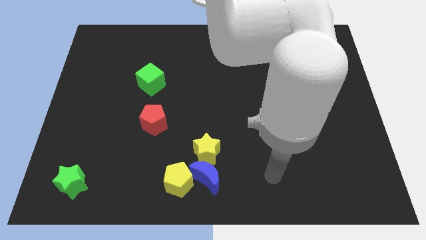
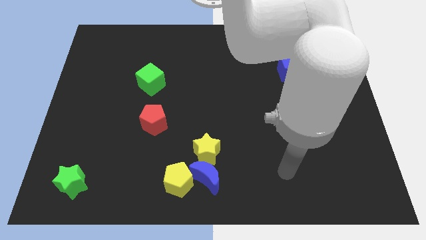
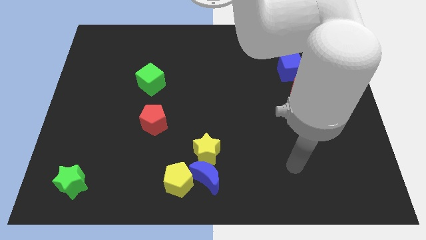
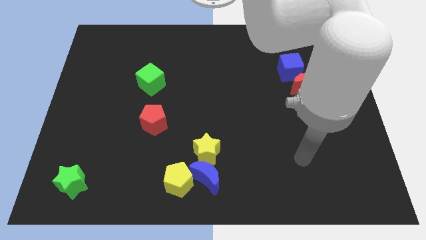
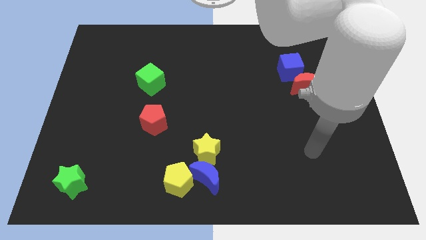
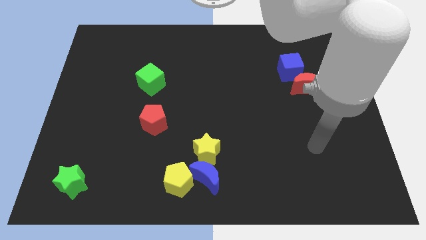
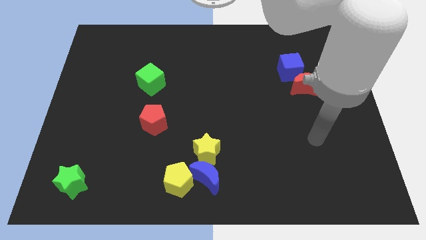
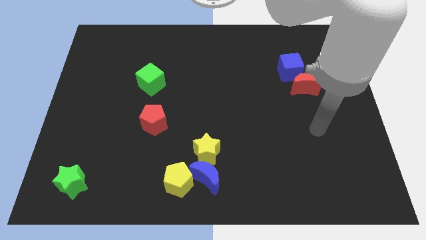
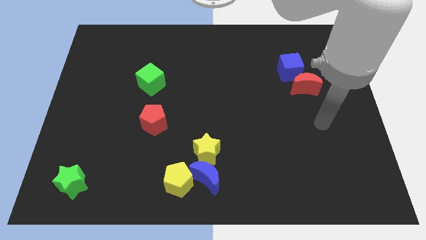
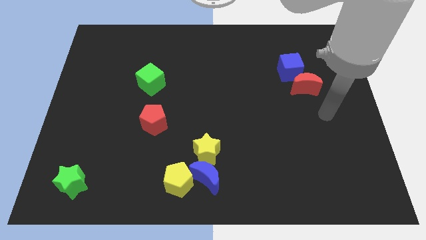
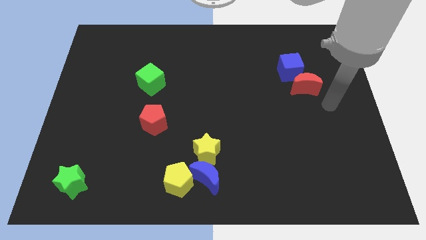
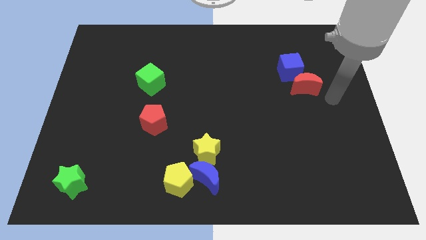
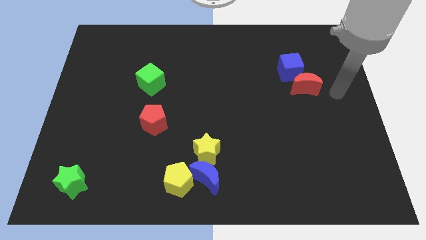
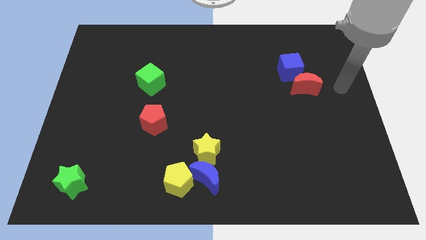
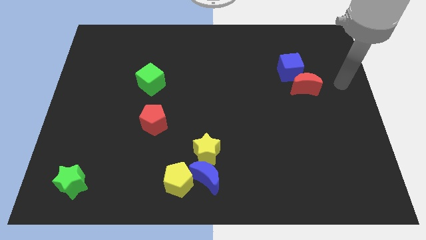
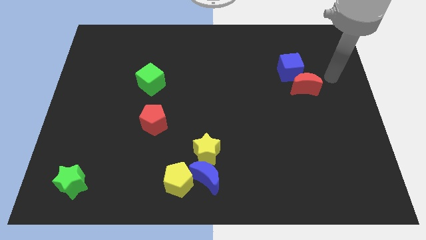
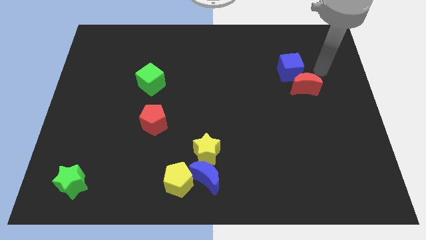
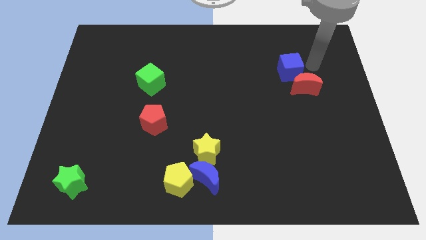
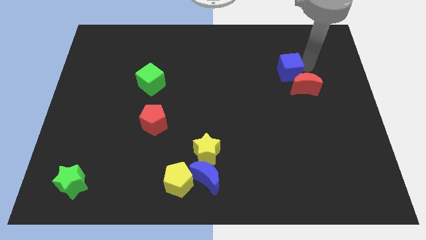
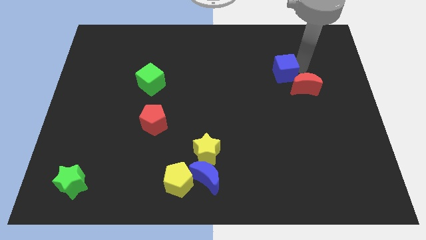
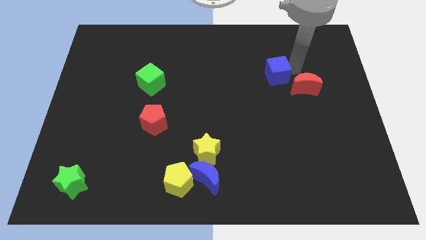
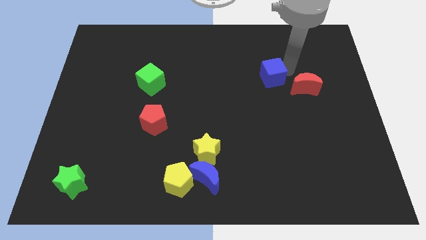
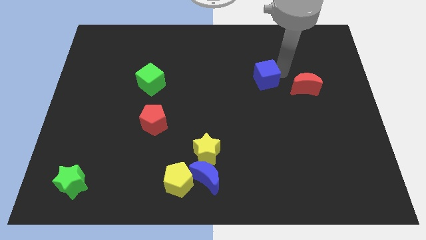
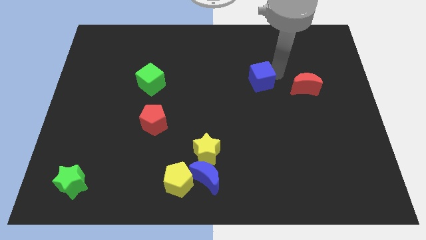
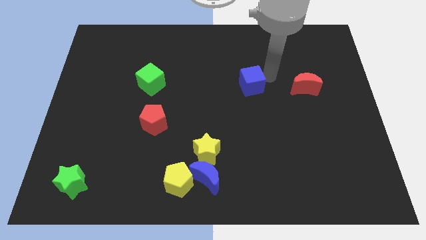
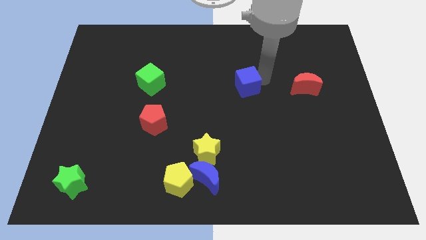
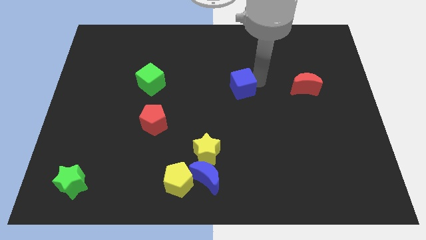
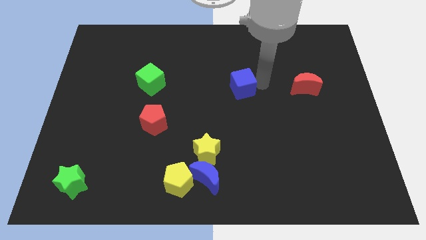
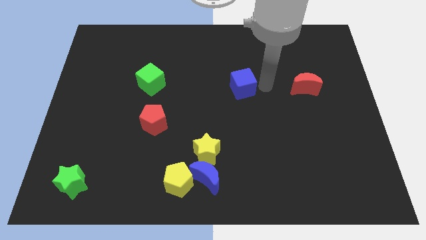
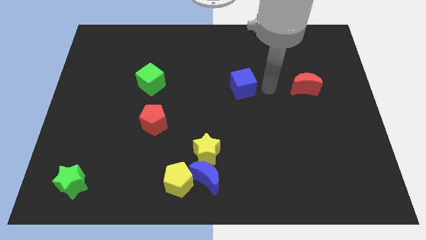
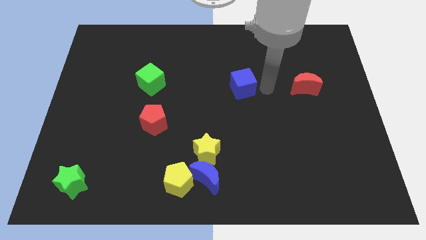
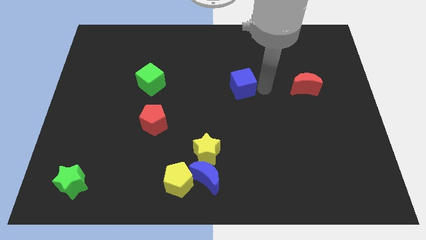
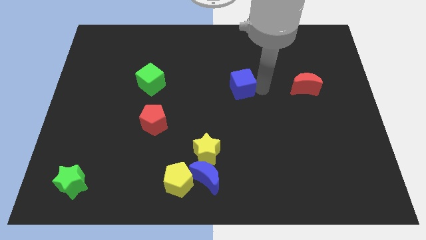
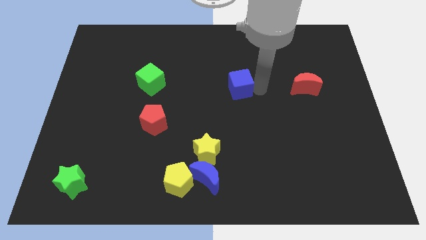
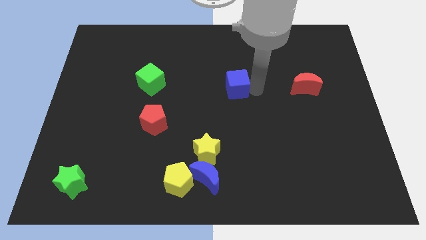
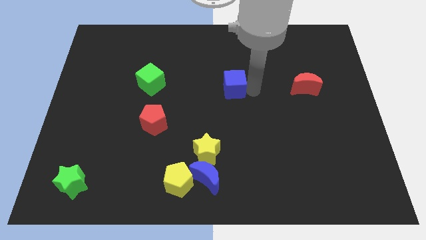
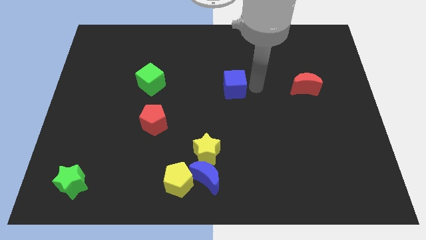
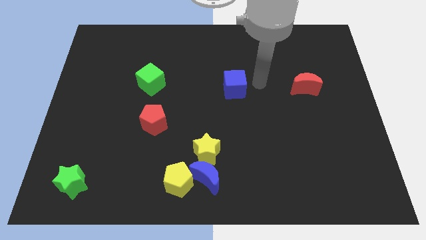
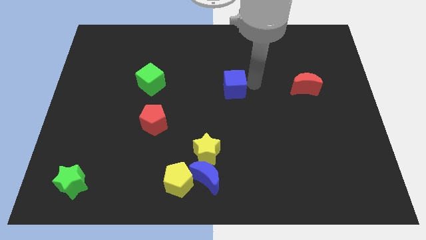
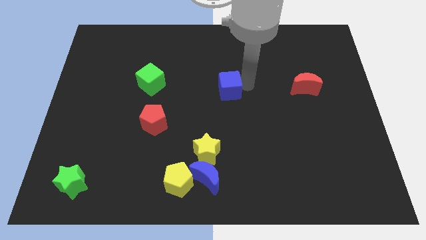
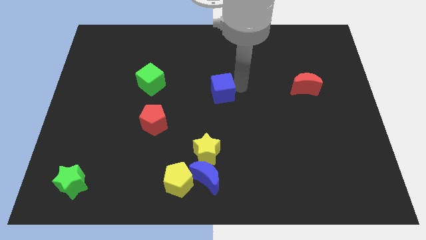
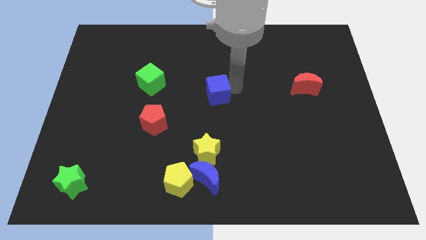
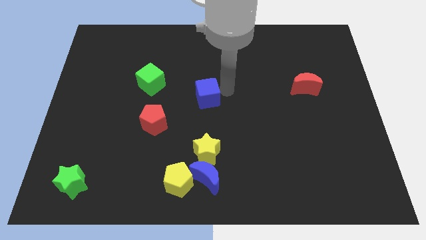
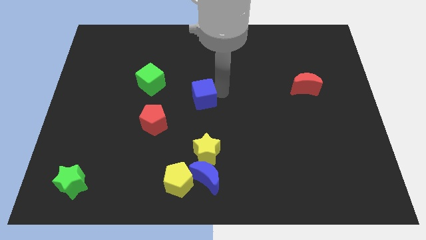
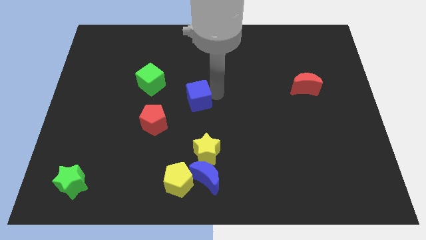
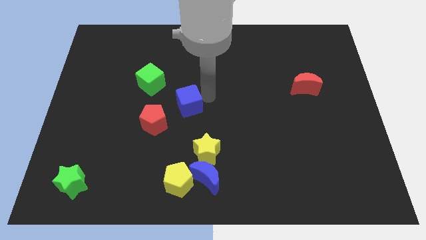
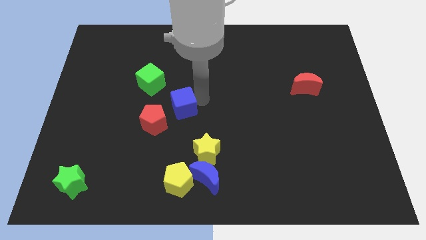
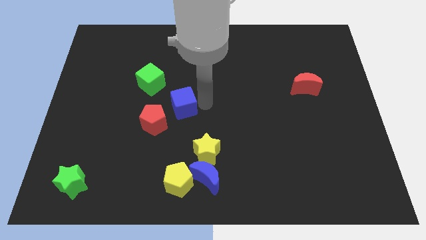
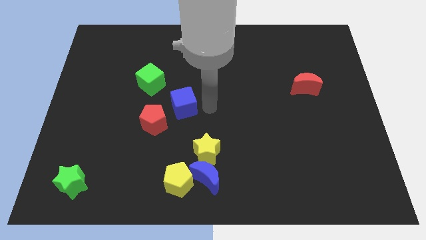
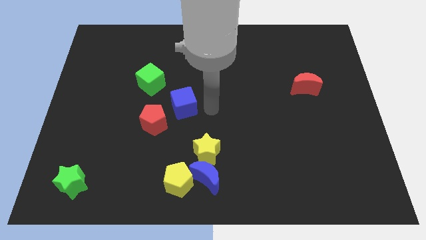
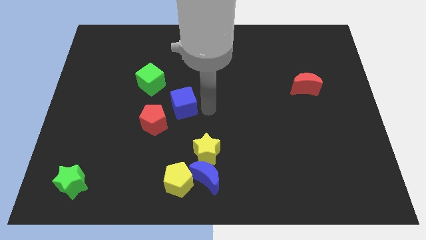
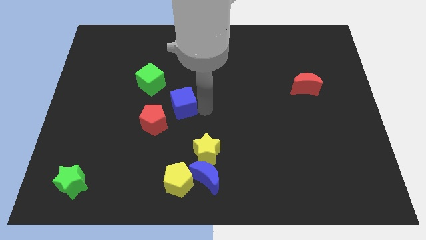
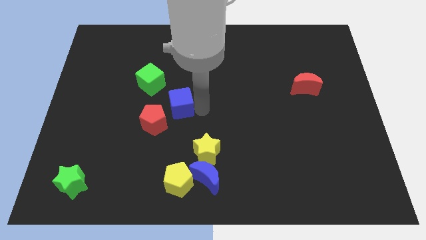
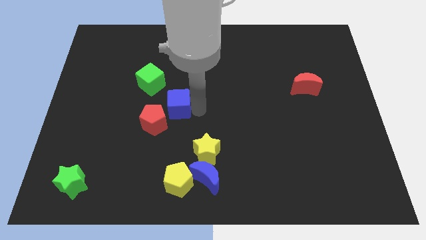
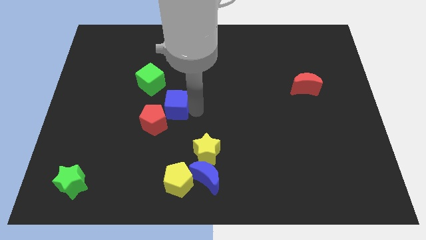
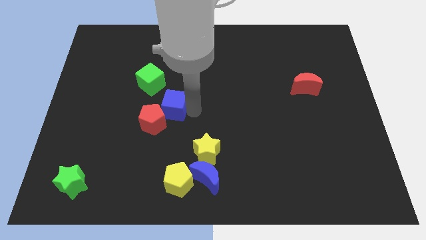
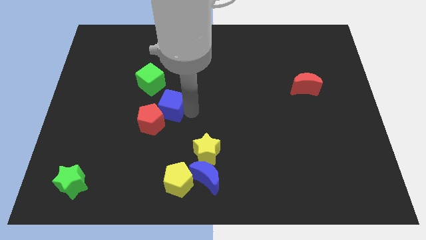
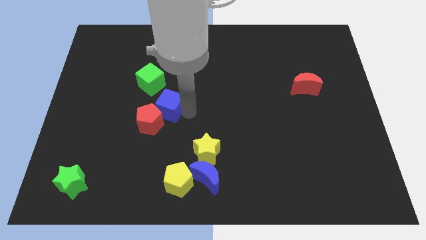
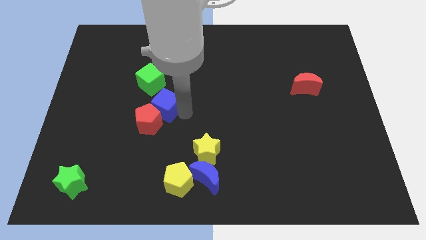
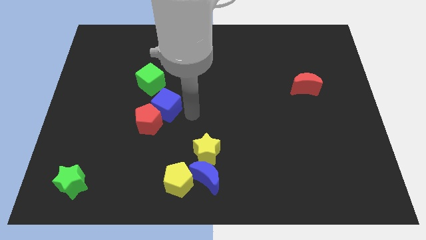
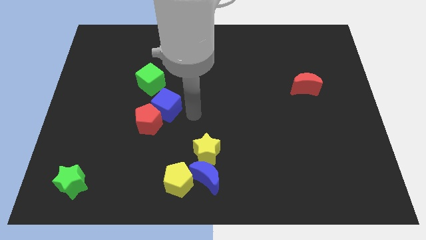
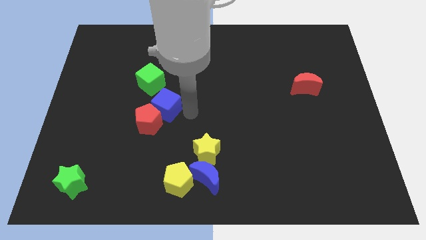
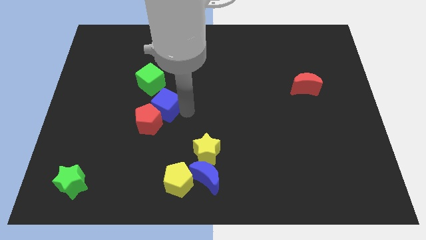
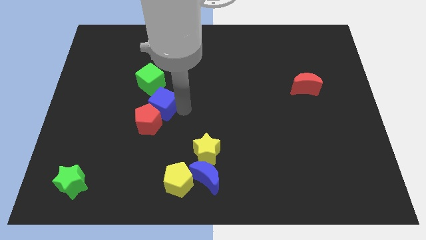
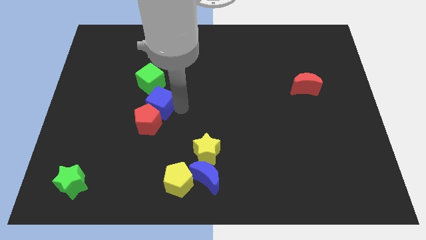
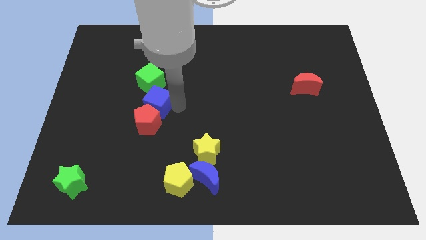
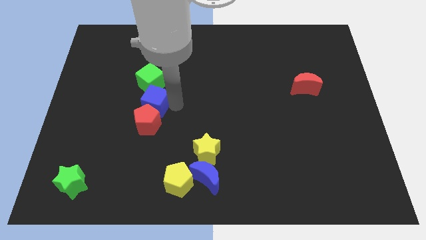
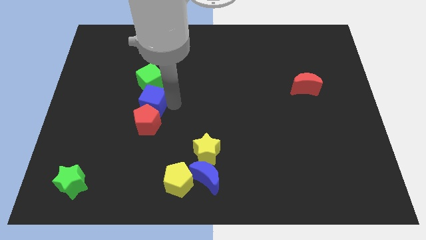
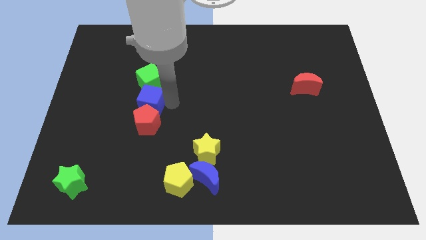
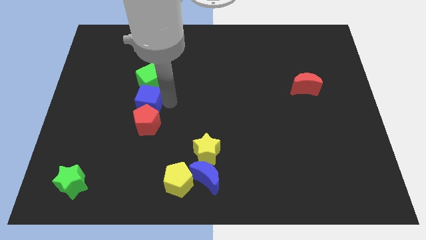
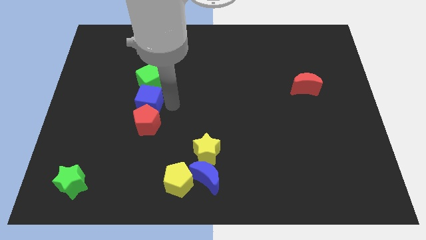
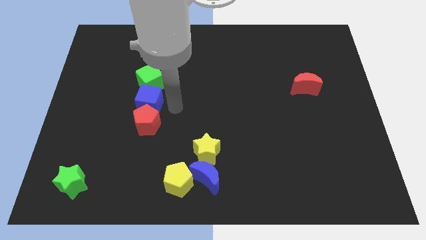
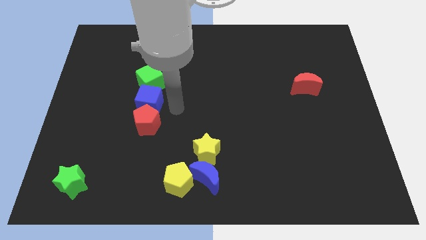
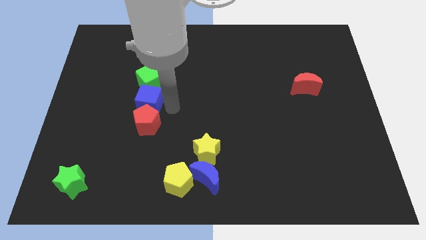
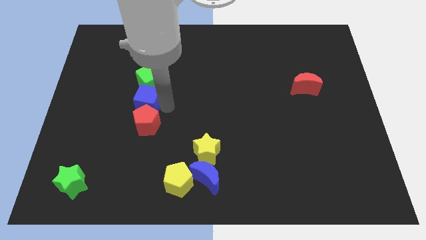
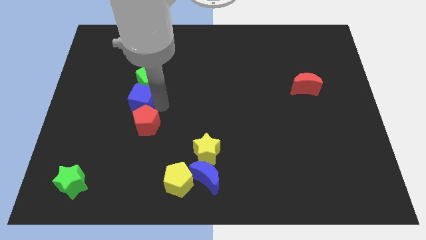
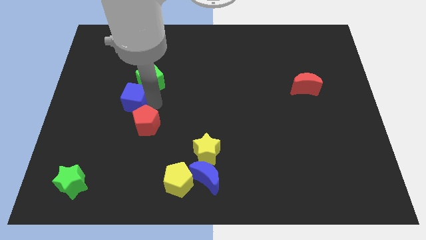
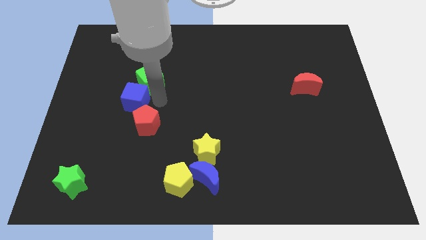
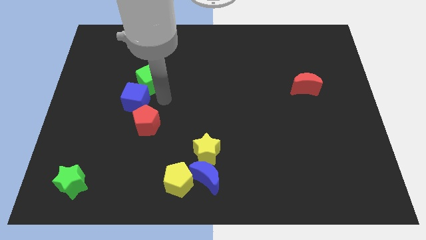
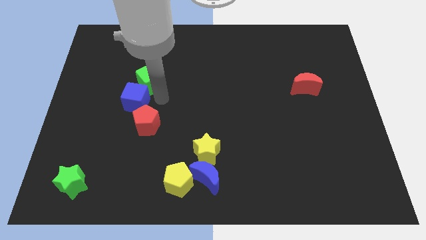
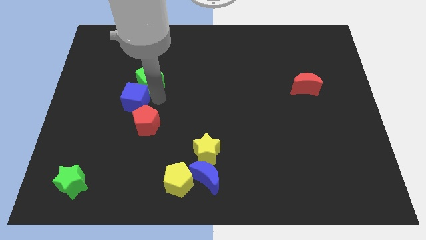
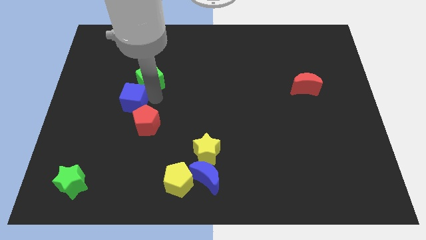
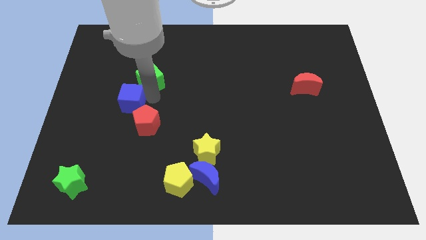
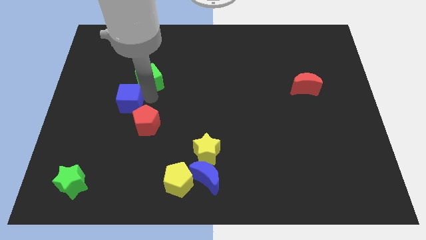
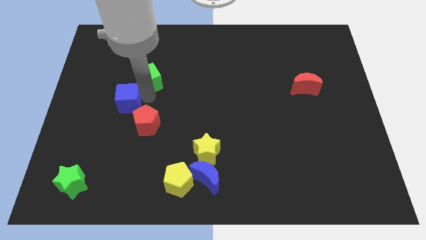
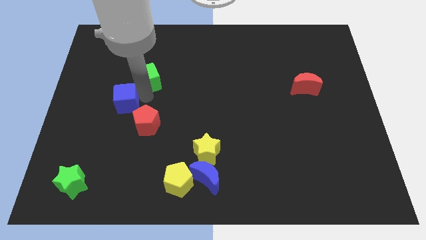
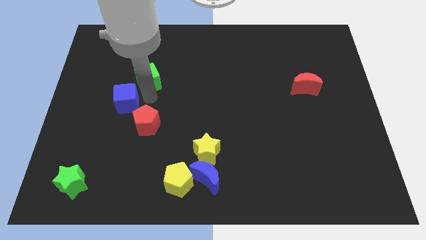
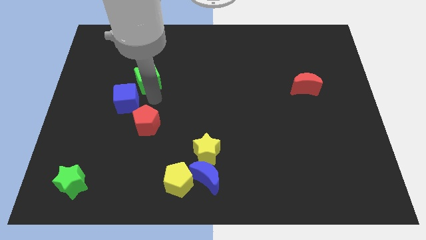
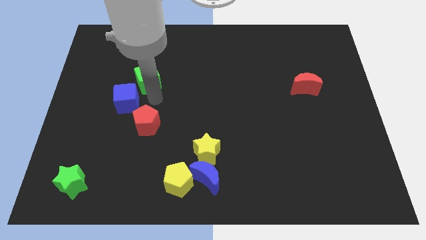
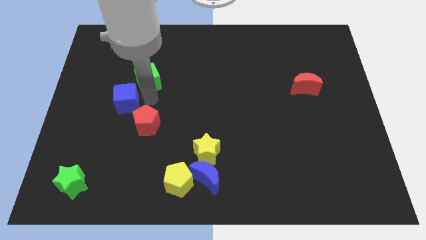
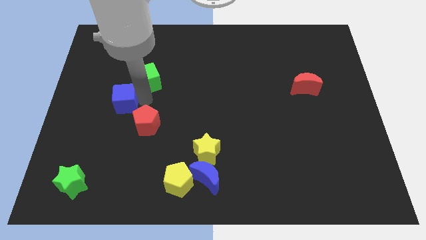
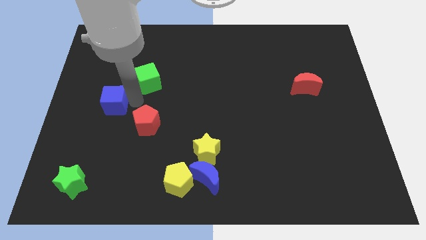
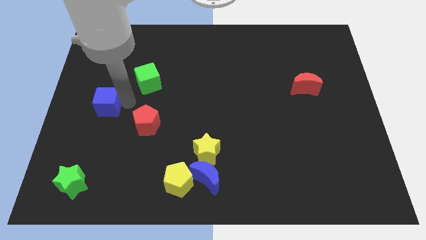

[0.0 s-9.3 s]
slide the blue cube to the center left
